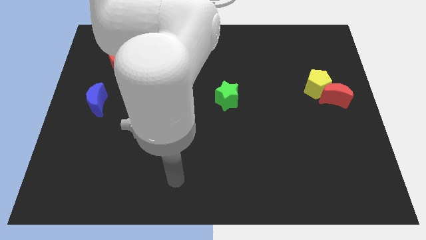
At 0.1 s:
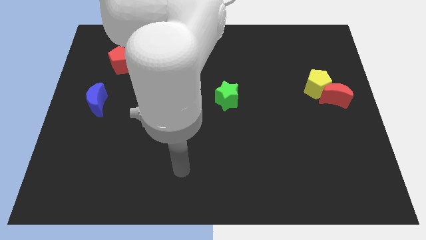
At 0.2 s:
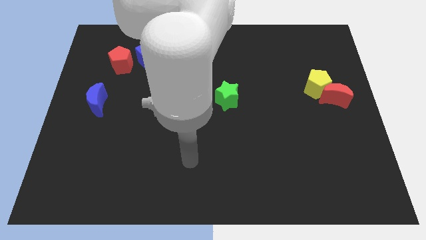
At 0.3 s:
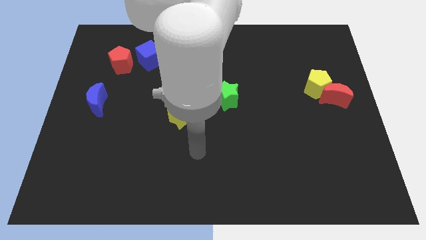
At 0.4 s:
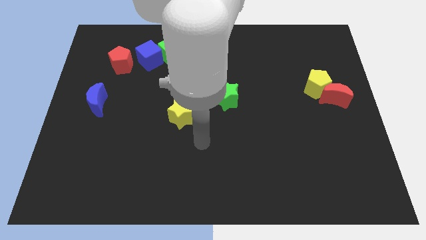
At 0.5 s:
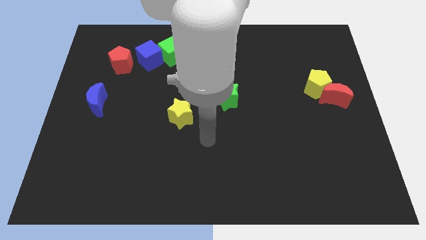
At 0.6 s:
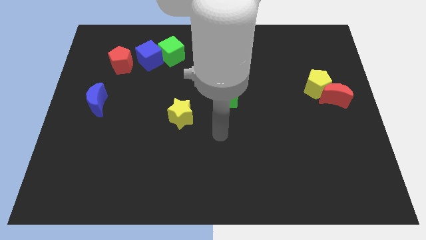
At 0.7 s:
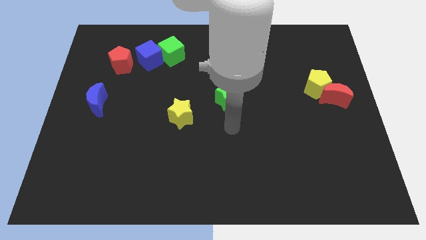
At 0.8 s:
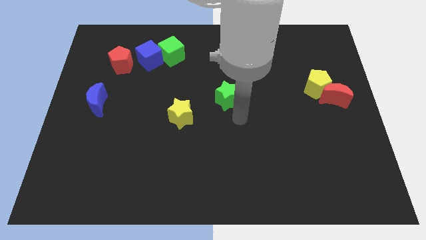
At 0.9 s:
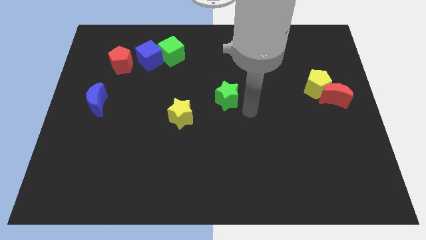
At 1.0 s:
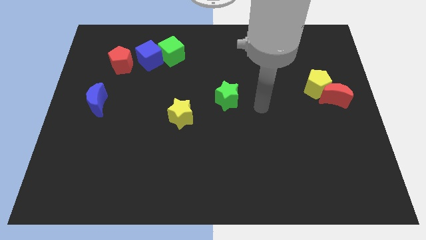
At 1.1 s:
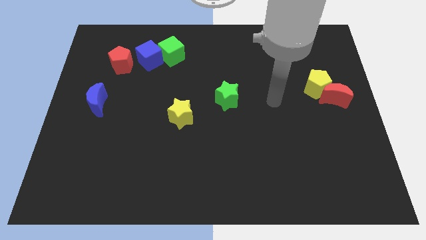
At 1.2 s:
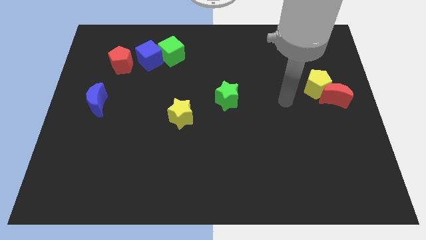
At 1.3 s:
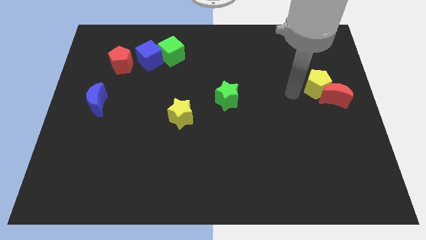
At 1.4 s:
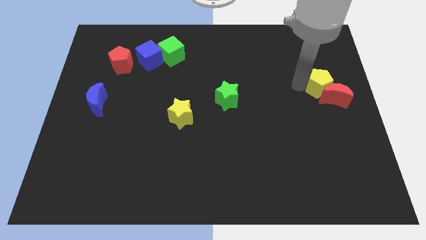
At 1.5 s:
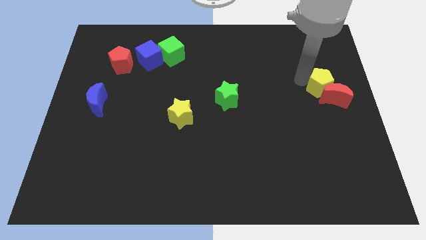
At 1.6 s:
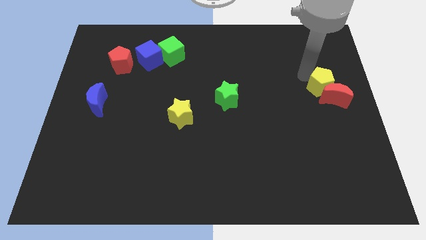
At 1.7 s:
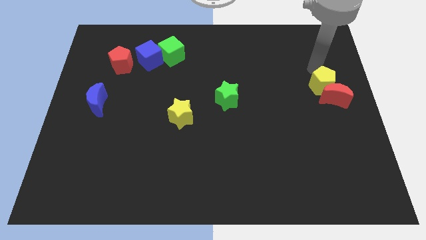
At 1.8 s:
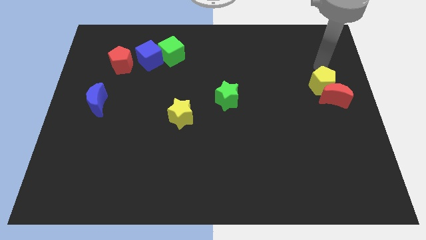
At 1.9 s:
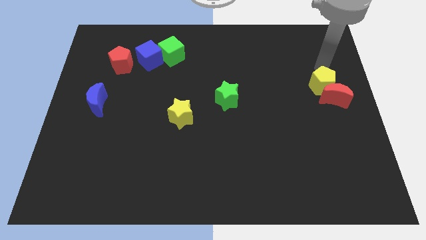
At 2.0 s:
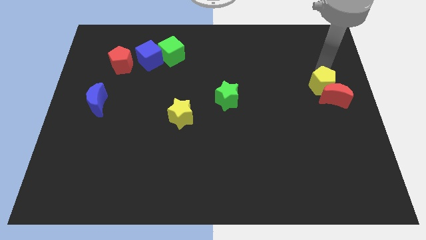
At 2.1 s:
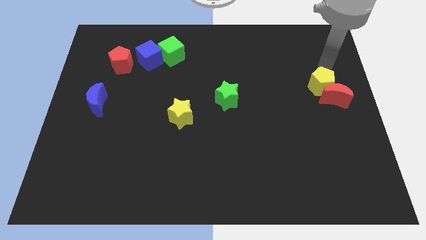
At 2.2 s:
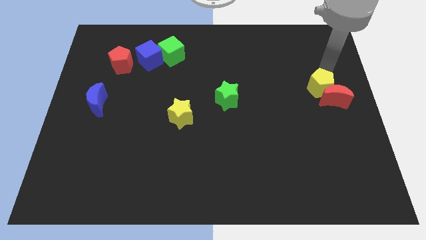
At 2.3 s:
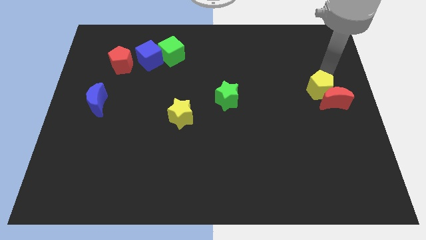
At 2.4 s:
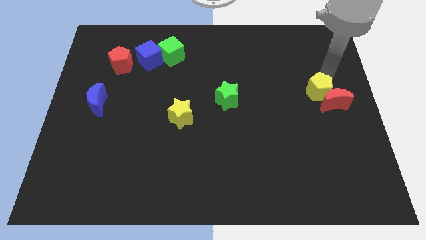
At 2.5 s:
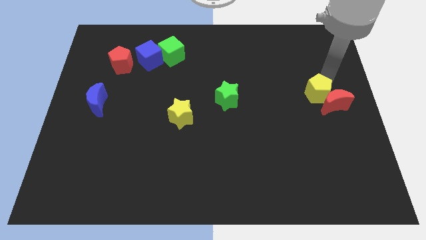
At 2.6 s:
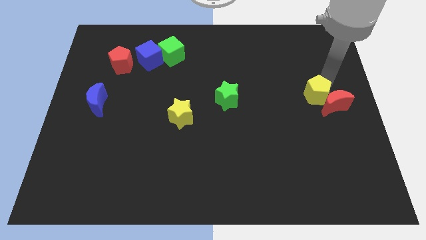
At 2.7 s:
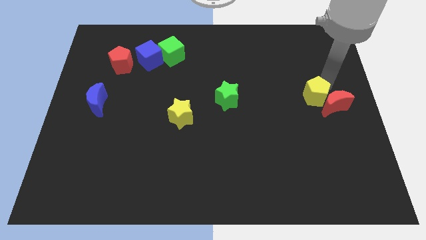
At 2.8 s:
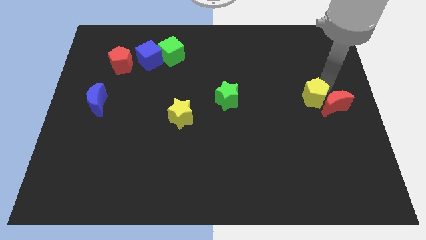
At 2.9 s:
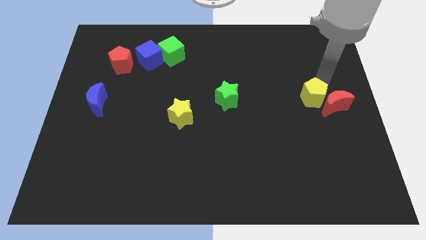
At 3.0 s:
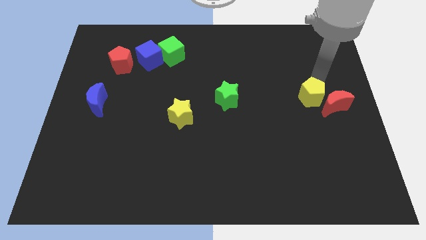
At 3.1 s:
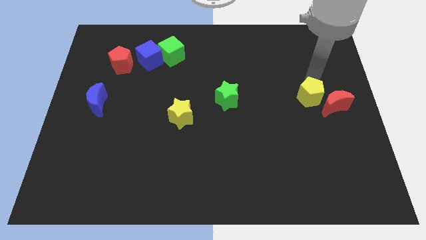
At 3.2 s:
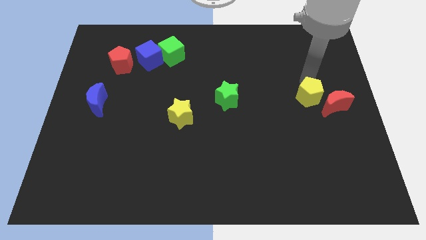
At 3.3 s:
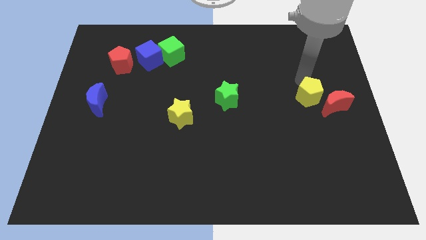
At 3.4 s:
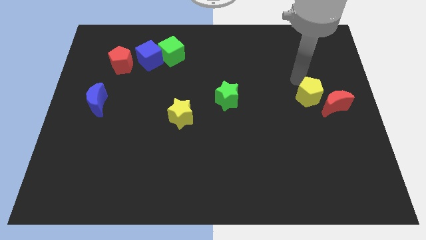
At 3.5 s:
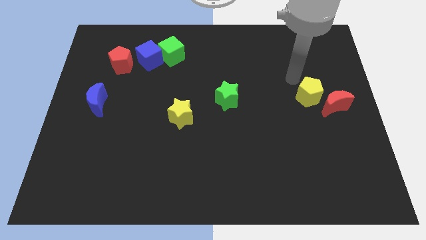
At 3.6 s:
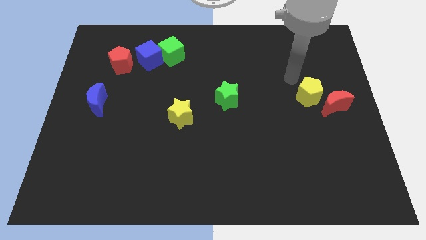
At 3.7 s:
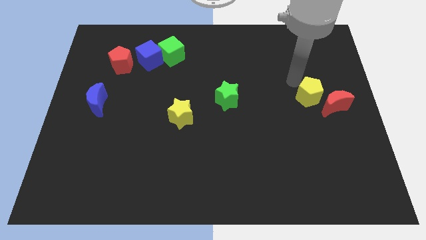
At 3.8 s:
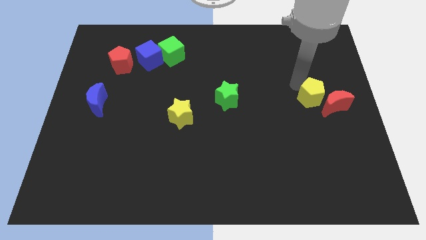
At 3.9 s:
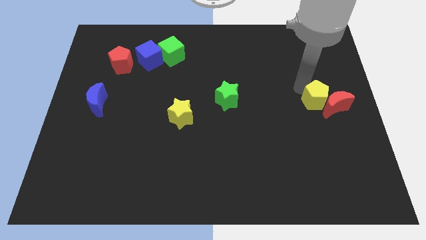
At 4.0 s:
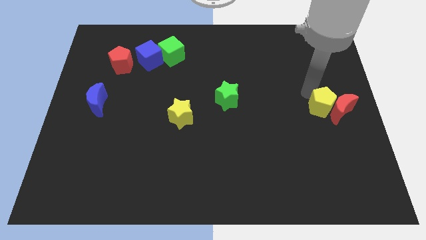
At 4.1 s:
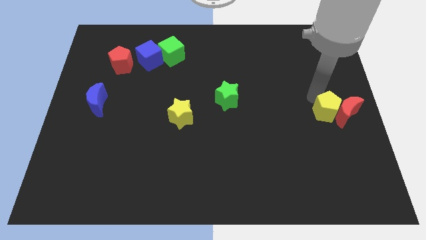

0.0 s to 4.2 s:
slightly move the yellow pentagon down

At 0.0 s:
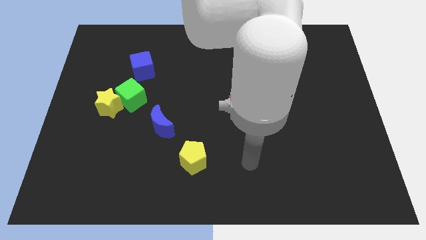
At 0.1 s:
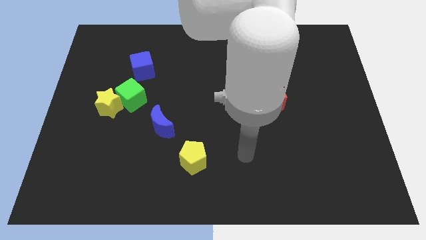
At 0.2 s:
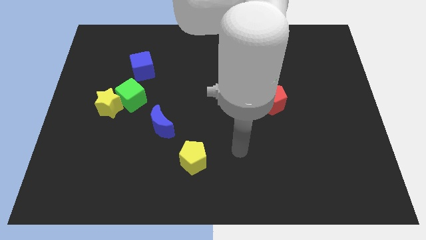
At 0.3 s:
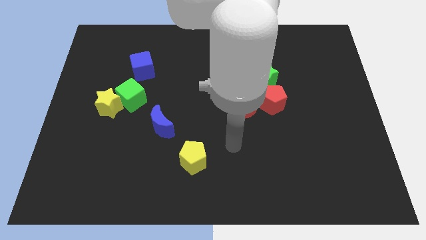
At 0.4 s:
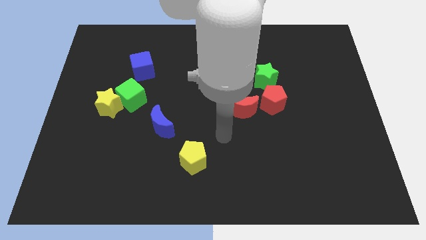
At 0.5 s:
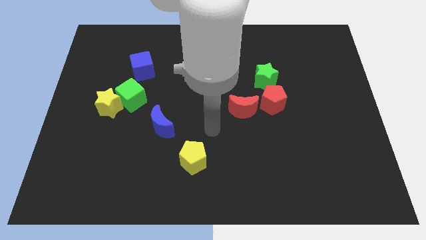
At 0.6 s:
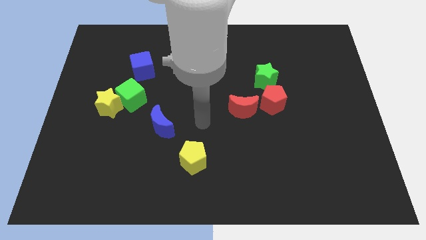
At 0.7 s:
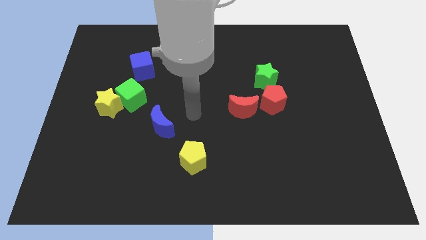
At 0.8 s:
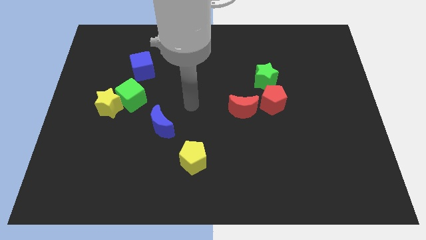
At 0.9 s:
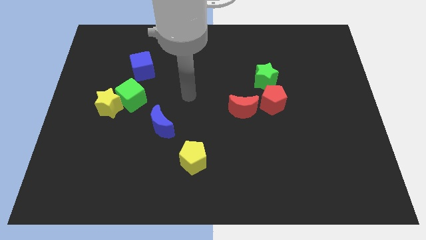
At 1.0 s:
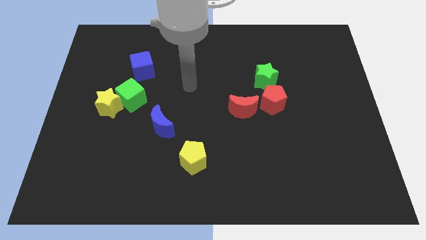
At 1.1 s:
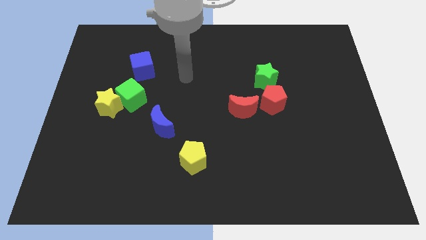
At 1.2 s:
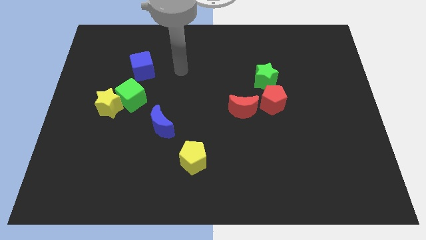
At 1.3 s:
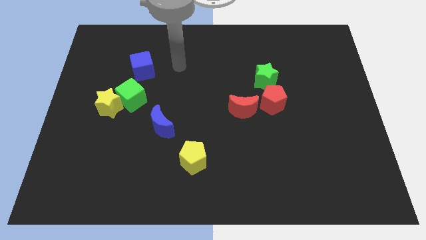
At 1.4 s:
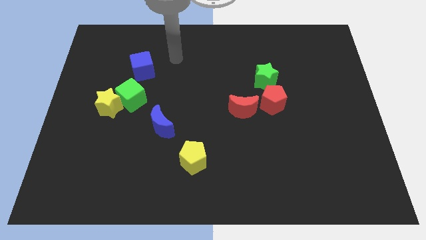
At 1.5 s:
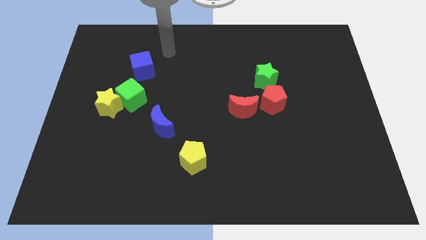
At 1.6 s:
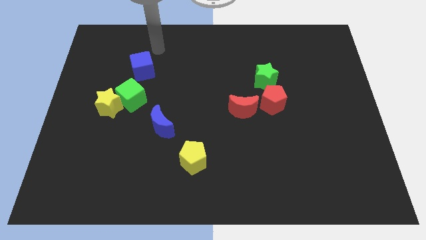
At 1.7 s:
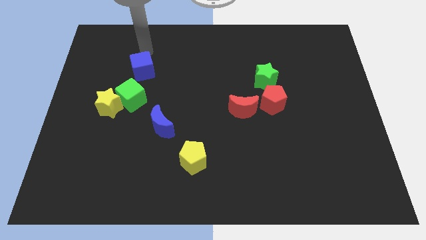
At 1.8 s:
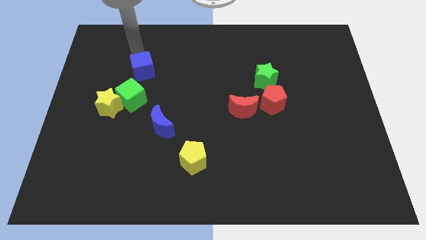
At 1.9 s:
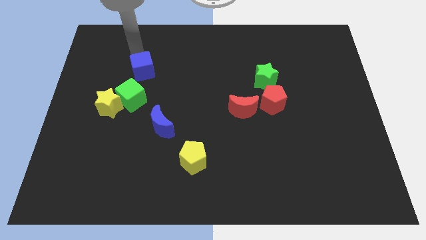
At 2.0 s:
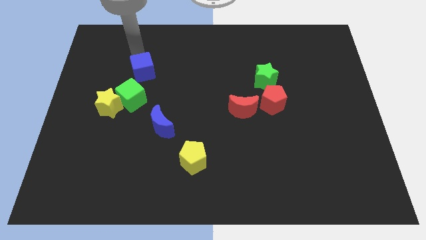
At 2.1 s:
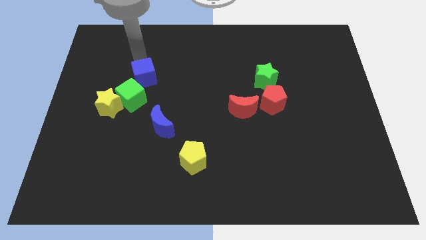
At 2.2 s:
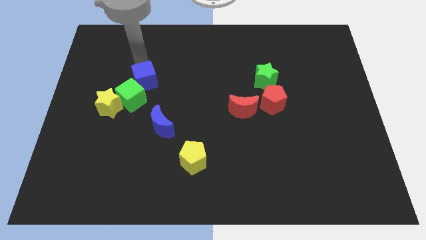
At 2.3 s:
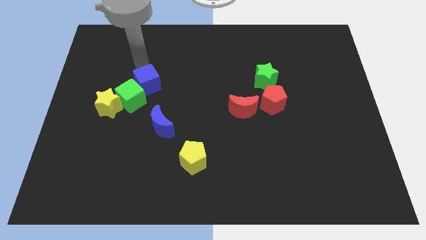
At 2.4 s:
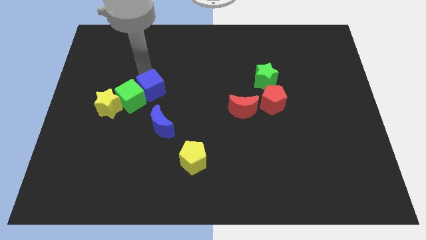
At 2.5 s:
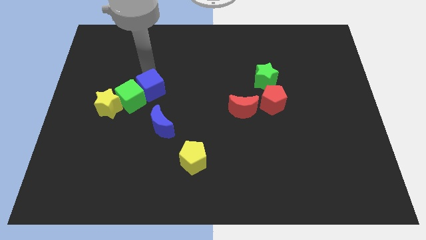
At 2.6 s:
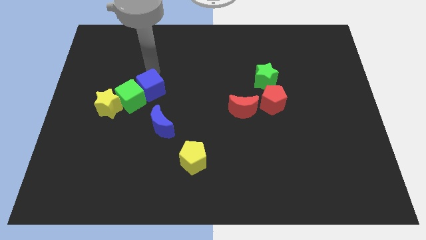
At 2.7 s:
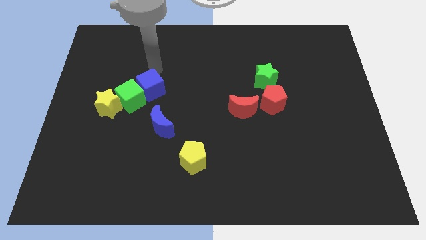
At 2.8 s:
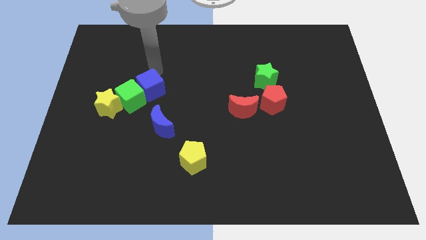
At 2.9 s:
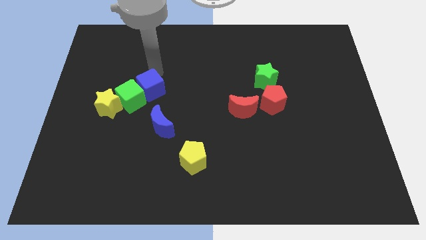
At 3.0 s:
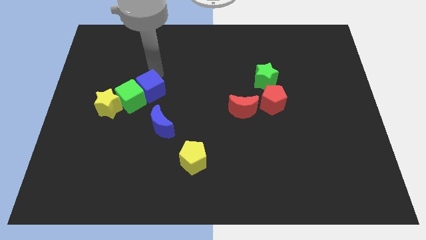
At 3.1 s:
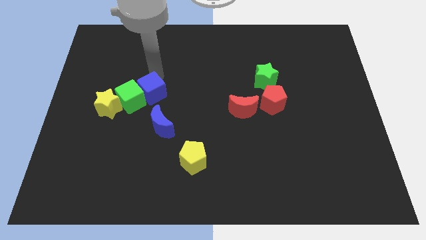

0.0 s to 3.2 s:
push the blue cube a little bit down

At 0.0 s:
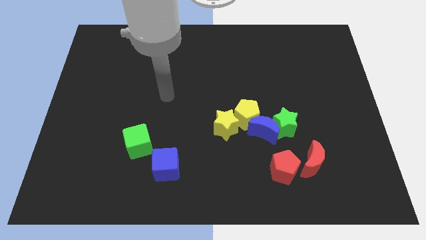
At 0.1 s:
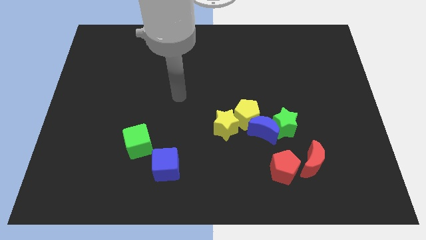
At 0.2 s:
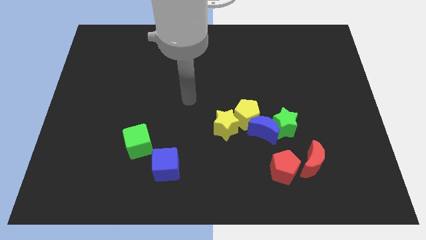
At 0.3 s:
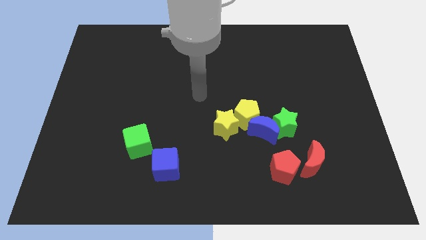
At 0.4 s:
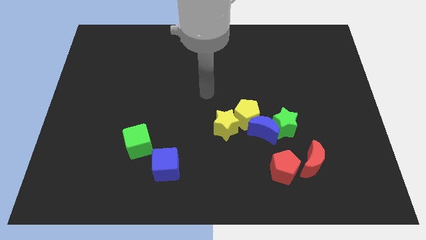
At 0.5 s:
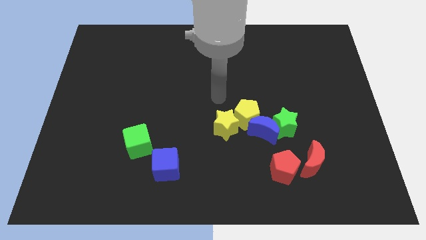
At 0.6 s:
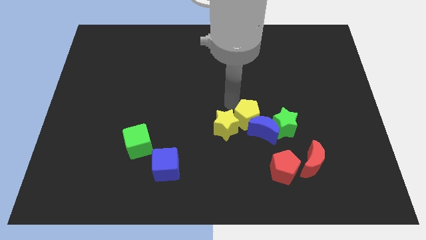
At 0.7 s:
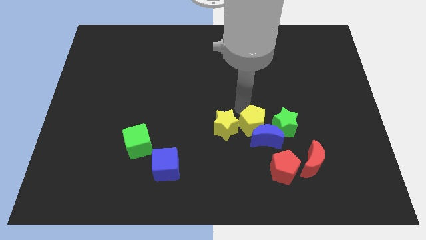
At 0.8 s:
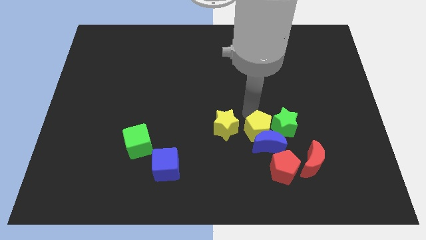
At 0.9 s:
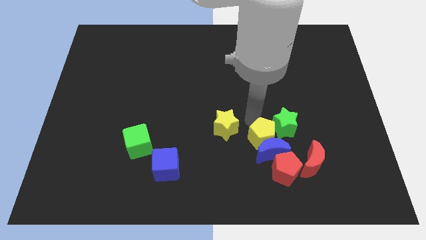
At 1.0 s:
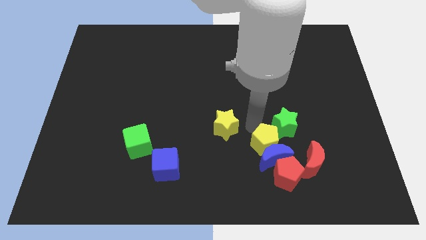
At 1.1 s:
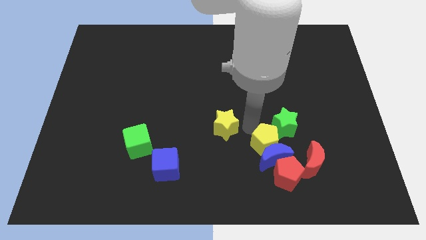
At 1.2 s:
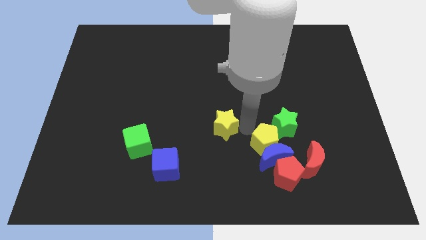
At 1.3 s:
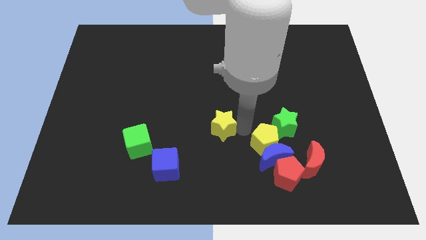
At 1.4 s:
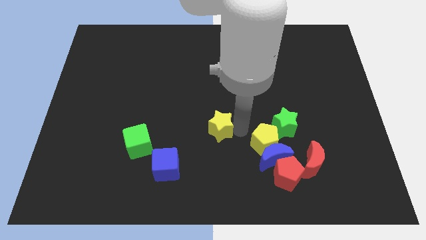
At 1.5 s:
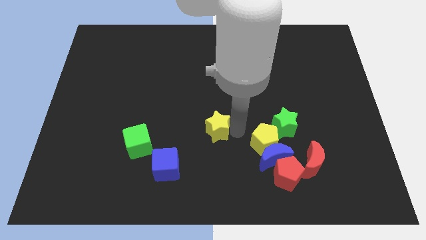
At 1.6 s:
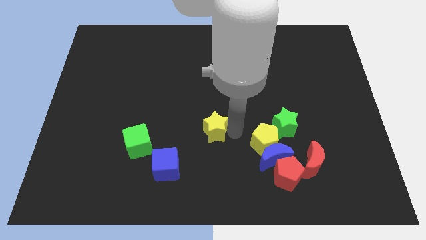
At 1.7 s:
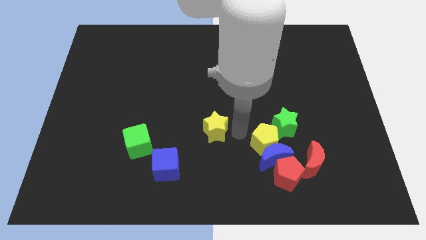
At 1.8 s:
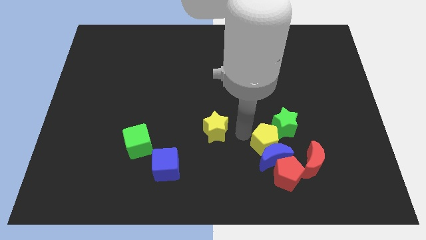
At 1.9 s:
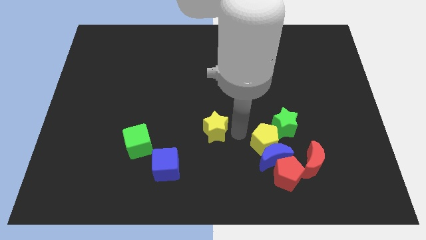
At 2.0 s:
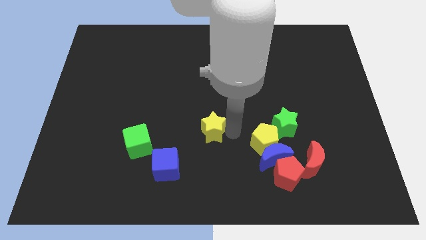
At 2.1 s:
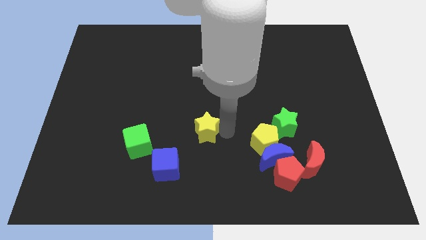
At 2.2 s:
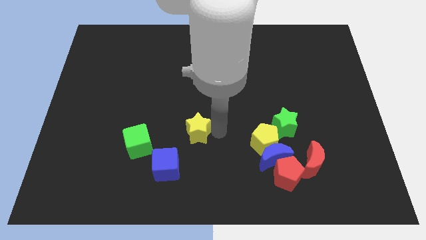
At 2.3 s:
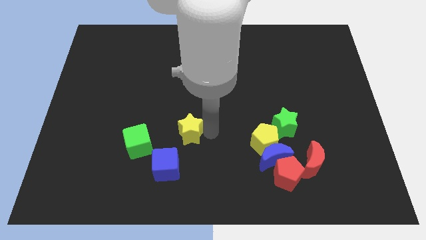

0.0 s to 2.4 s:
move the yellow star left a bit
